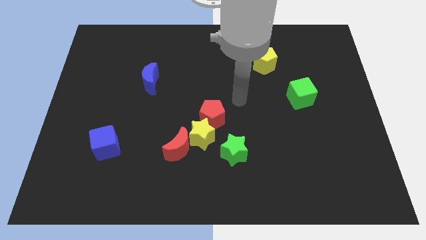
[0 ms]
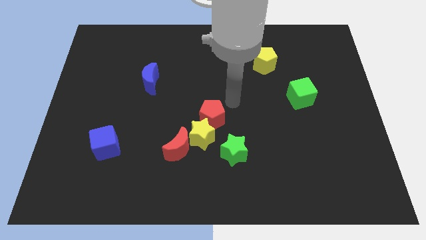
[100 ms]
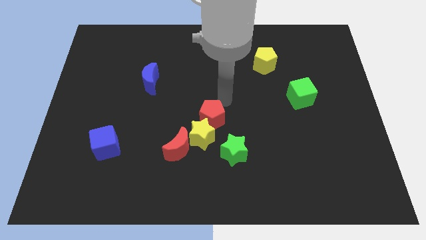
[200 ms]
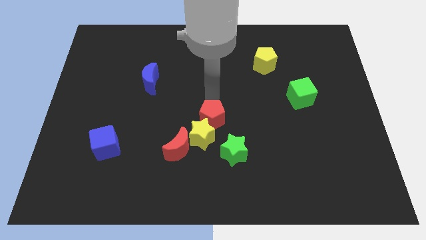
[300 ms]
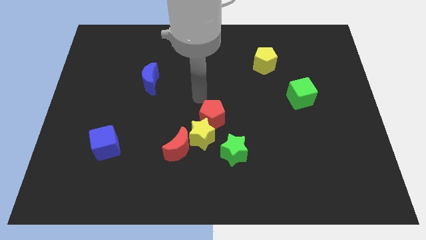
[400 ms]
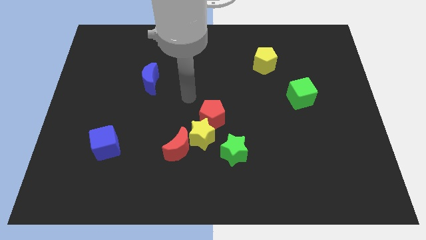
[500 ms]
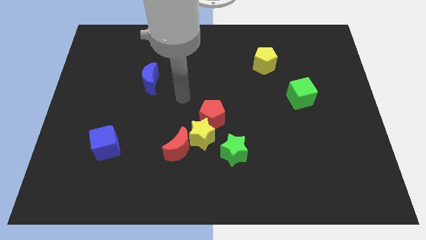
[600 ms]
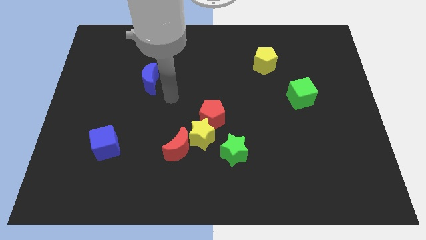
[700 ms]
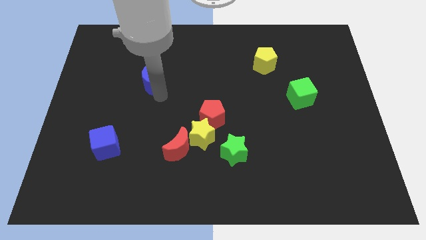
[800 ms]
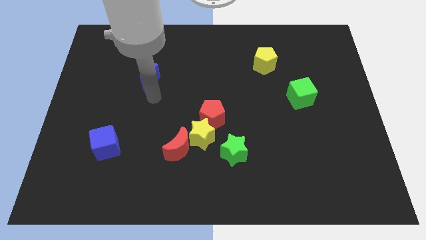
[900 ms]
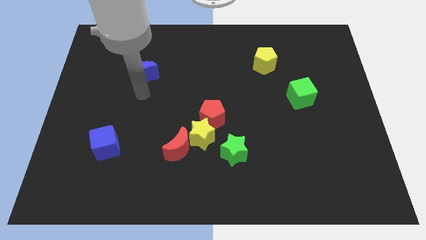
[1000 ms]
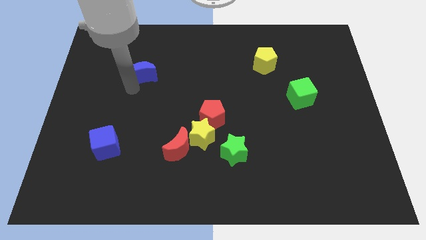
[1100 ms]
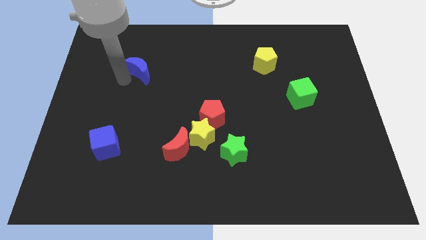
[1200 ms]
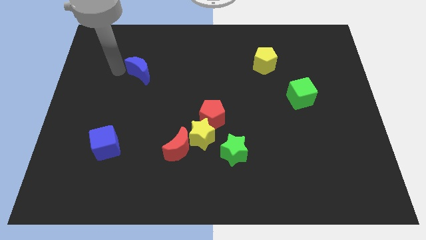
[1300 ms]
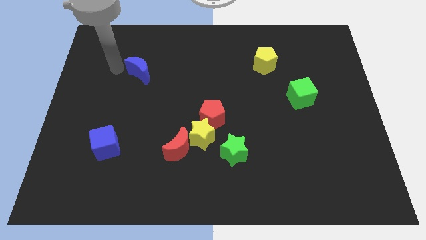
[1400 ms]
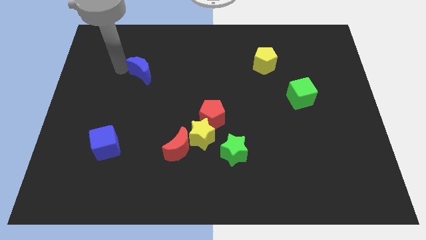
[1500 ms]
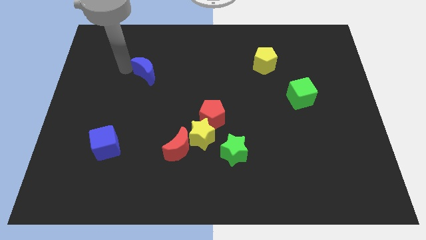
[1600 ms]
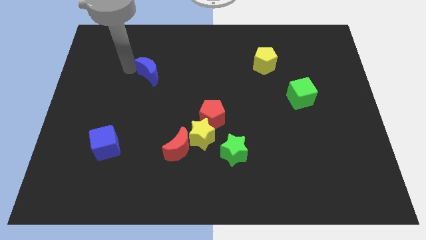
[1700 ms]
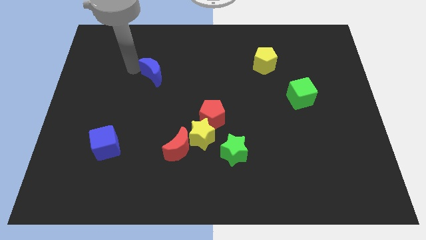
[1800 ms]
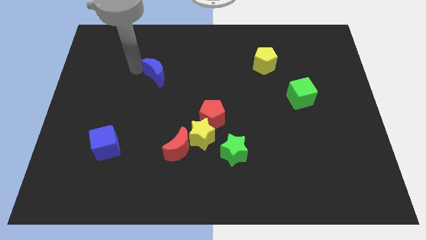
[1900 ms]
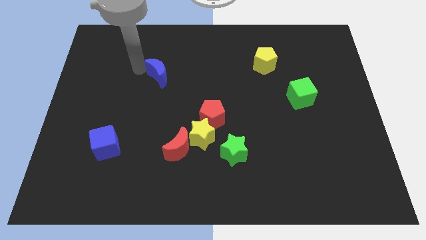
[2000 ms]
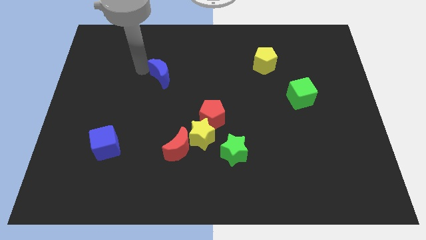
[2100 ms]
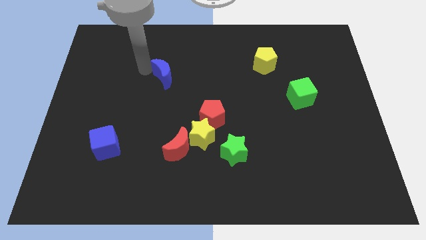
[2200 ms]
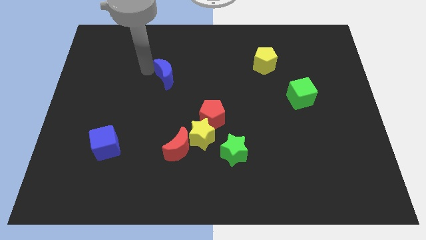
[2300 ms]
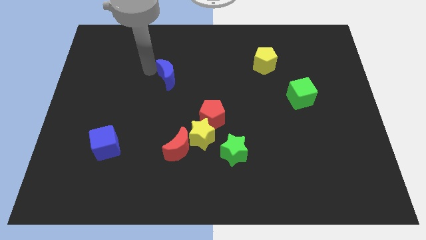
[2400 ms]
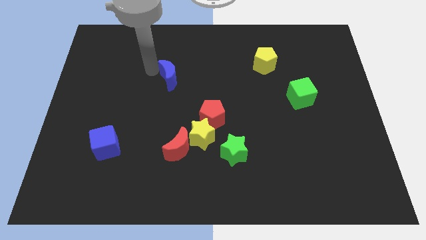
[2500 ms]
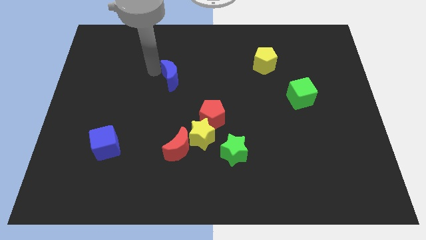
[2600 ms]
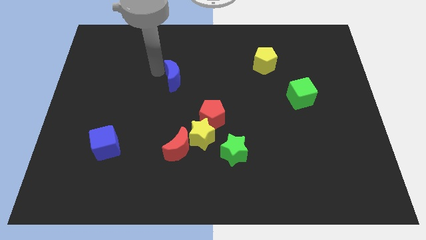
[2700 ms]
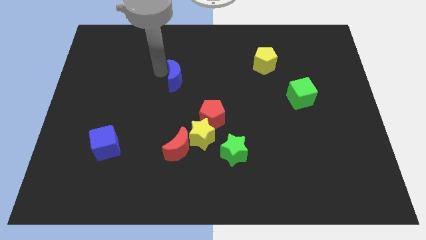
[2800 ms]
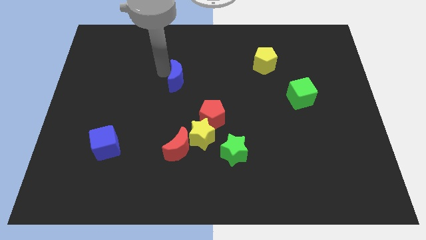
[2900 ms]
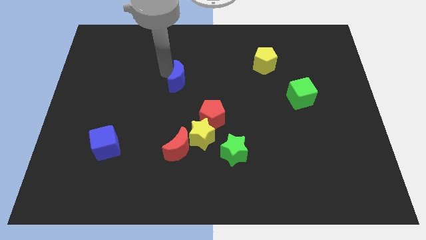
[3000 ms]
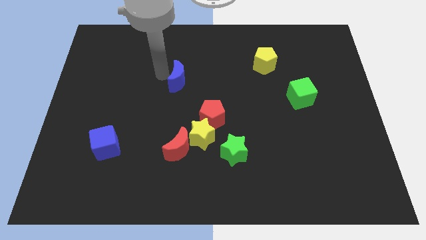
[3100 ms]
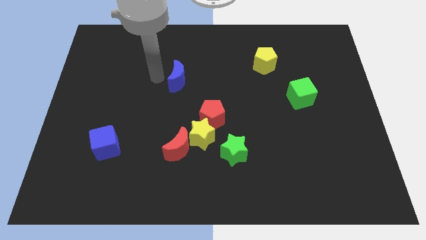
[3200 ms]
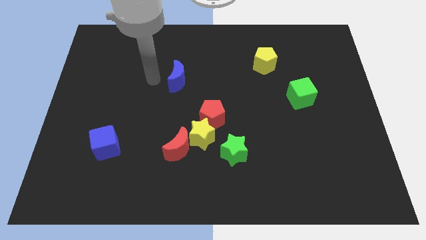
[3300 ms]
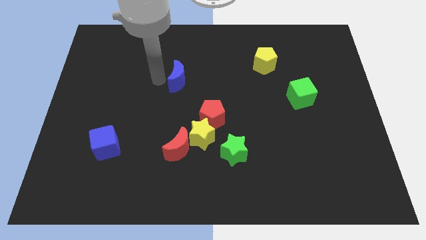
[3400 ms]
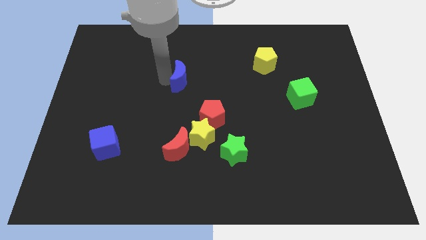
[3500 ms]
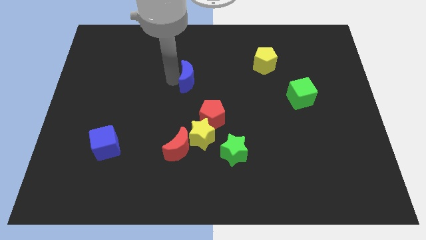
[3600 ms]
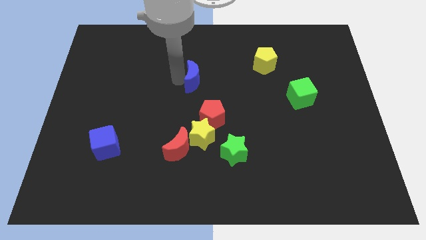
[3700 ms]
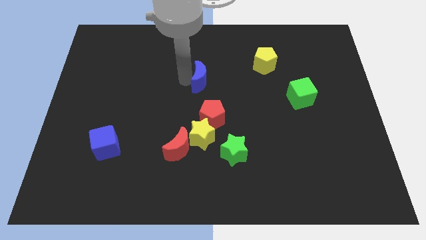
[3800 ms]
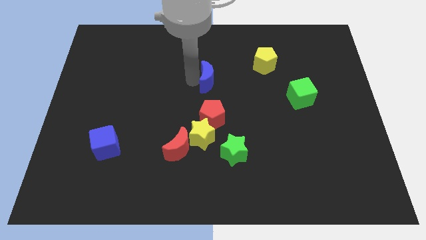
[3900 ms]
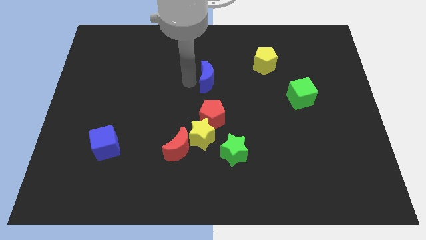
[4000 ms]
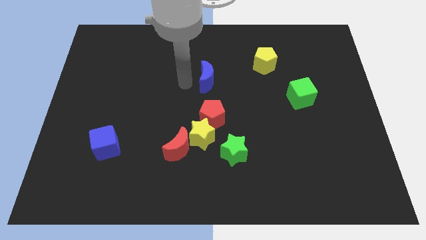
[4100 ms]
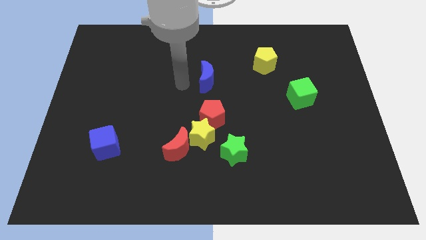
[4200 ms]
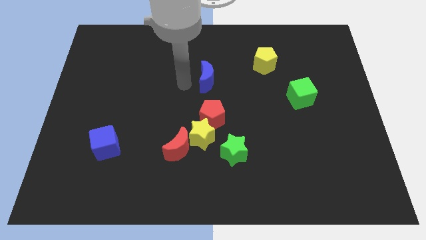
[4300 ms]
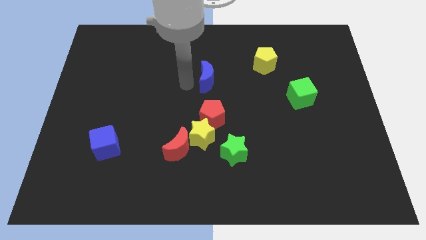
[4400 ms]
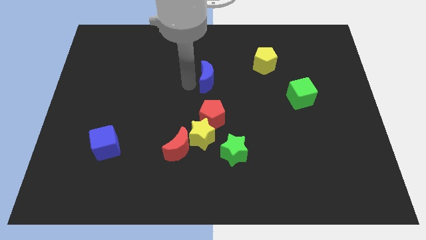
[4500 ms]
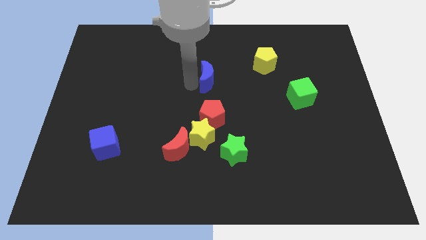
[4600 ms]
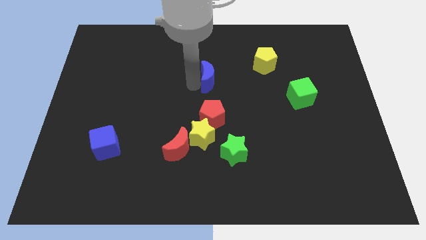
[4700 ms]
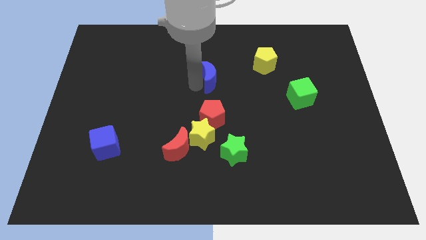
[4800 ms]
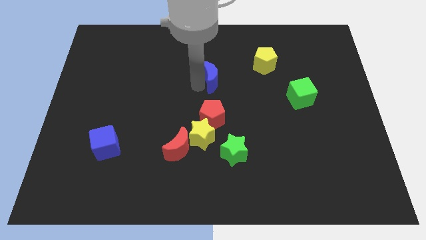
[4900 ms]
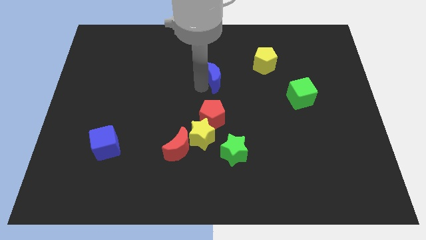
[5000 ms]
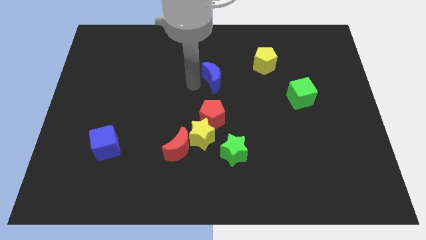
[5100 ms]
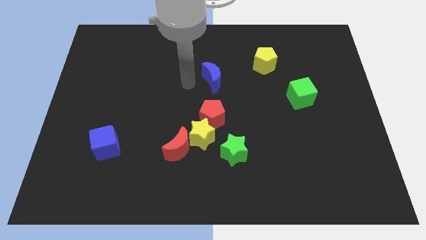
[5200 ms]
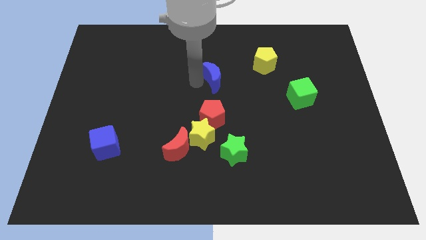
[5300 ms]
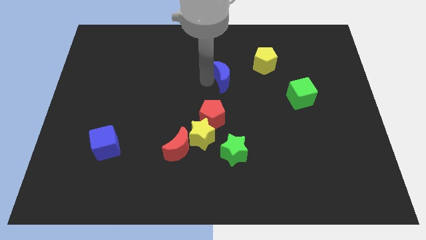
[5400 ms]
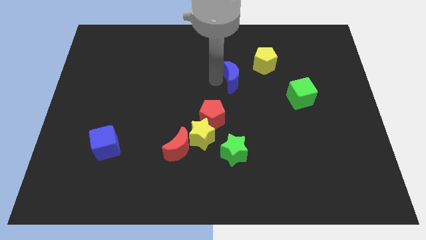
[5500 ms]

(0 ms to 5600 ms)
move the blue moon to the right

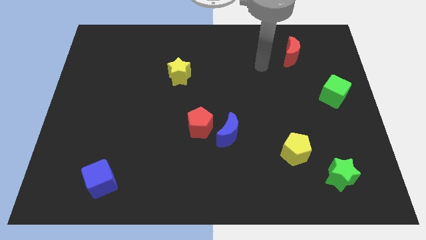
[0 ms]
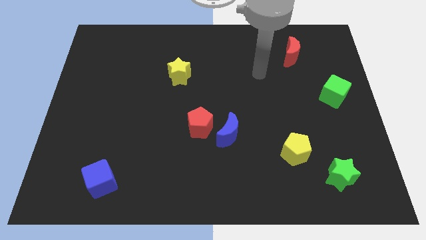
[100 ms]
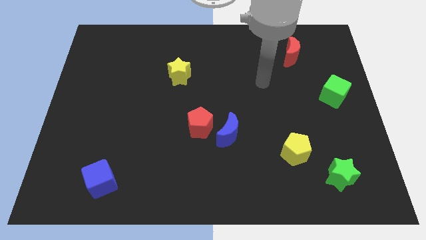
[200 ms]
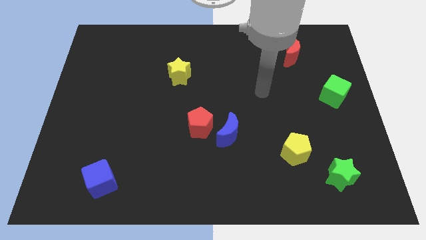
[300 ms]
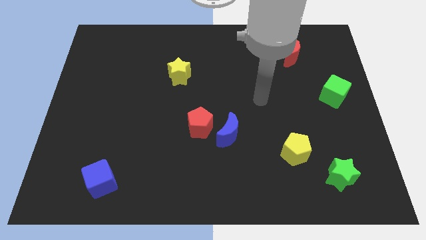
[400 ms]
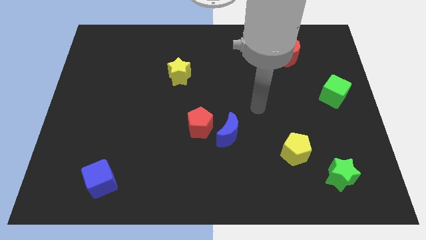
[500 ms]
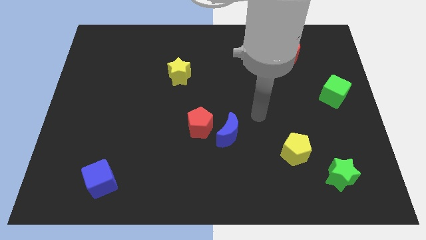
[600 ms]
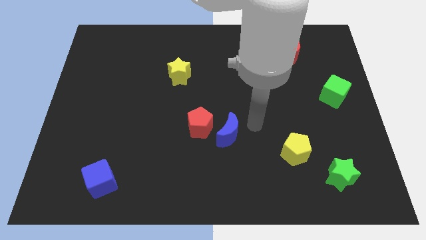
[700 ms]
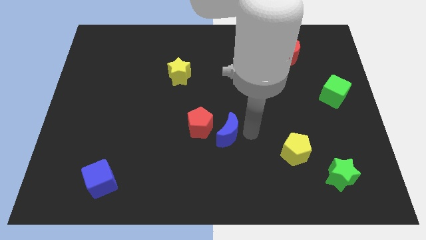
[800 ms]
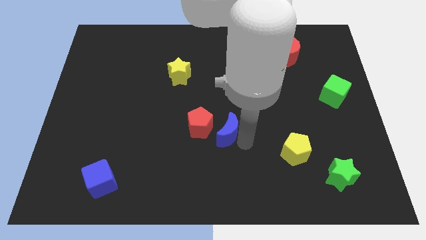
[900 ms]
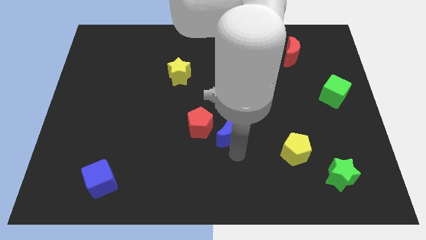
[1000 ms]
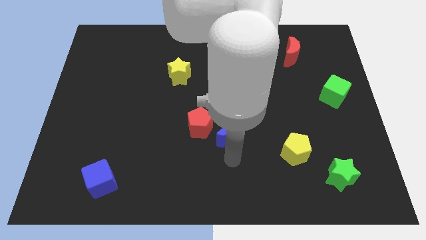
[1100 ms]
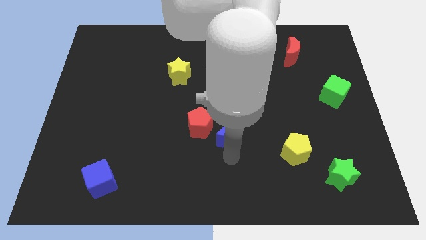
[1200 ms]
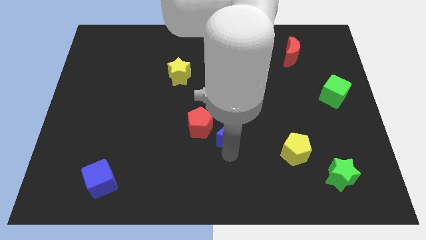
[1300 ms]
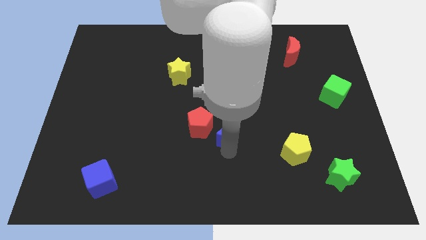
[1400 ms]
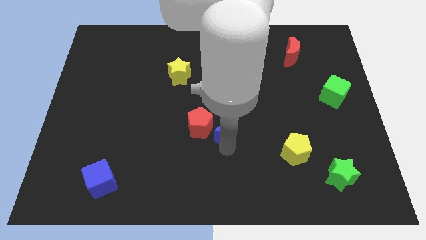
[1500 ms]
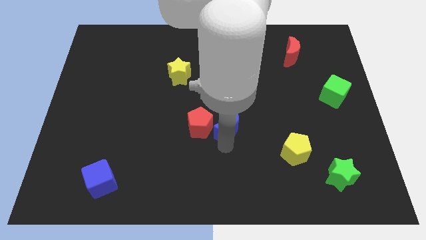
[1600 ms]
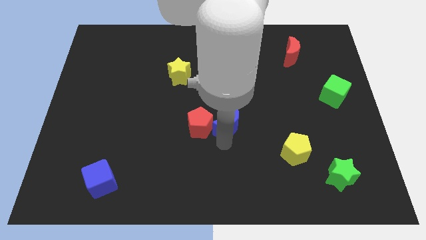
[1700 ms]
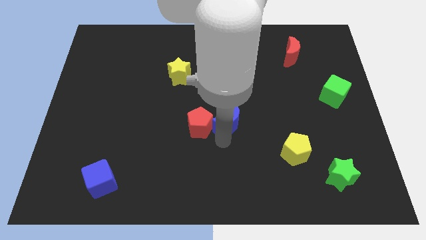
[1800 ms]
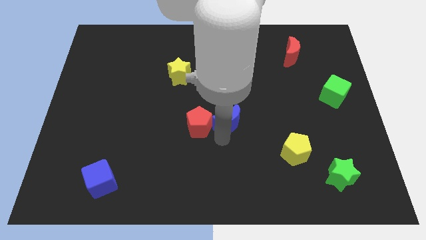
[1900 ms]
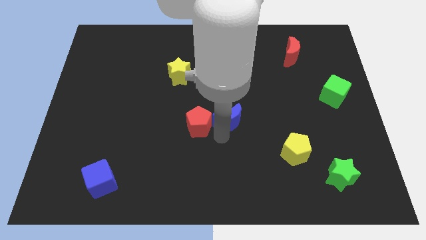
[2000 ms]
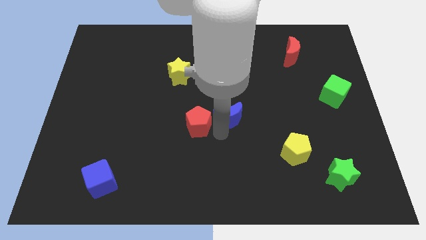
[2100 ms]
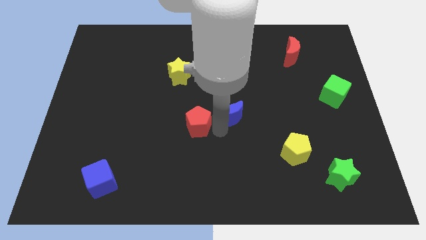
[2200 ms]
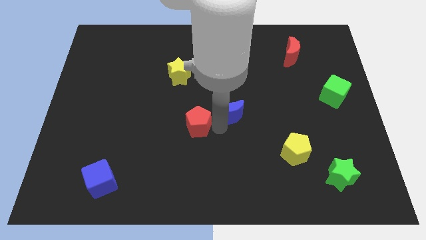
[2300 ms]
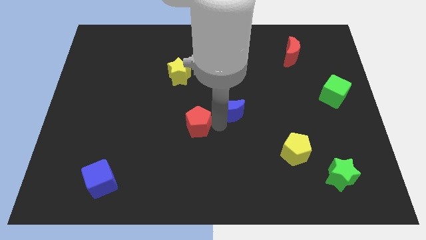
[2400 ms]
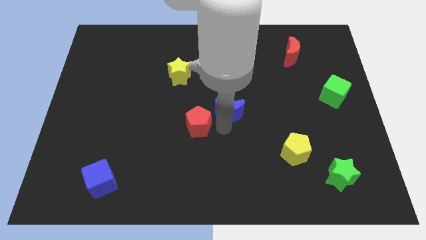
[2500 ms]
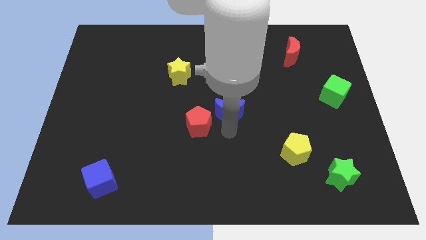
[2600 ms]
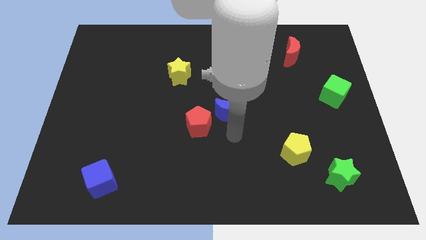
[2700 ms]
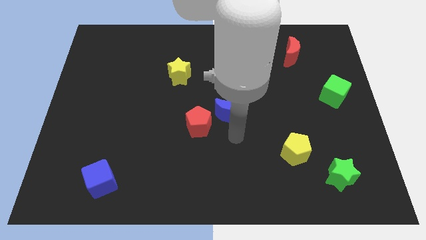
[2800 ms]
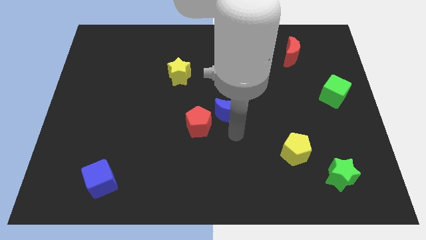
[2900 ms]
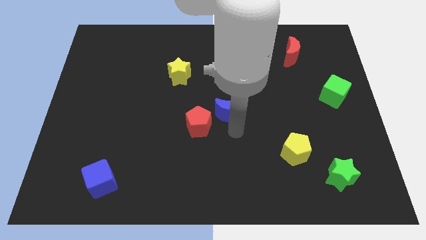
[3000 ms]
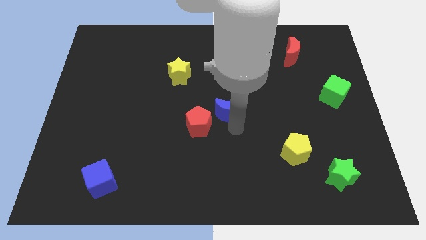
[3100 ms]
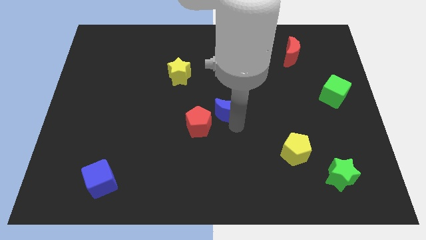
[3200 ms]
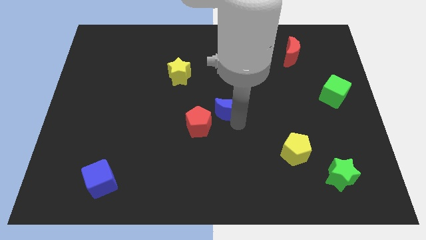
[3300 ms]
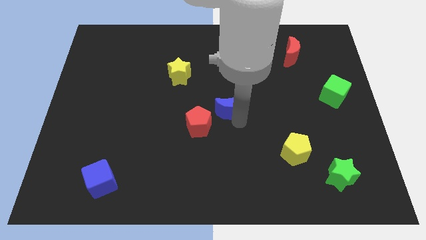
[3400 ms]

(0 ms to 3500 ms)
slide the blue moon a little up
